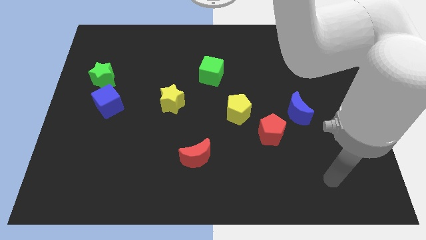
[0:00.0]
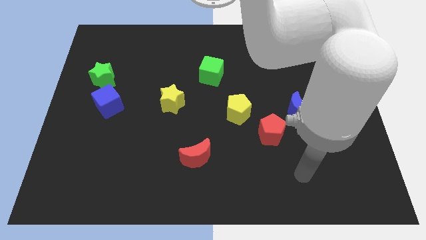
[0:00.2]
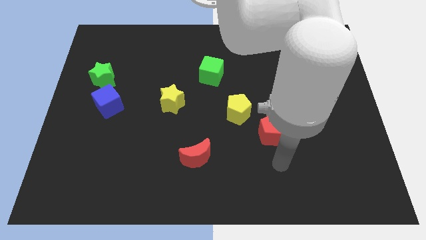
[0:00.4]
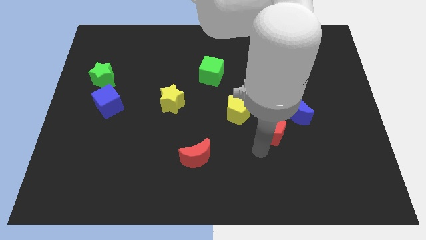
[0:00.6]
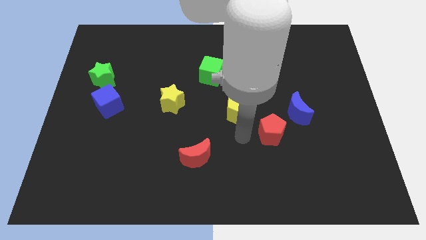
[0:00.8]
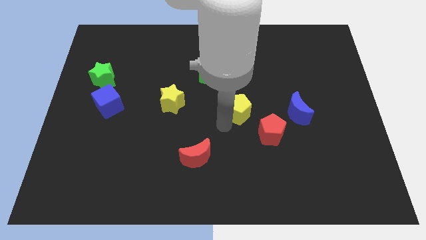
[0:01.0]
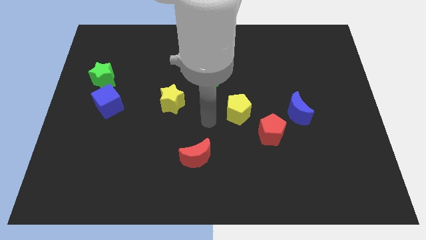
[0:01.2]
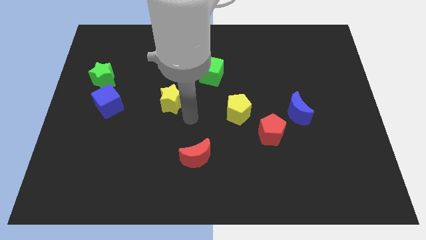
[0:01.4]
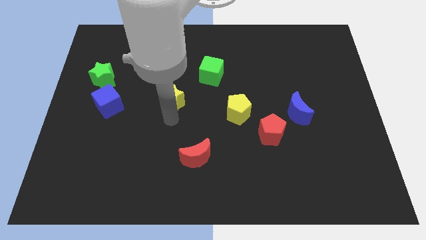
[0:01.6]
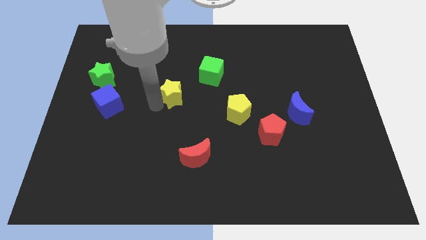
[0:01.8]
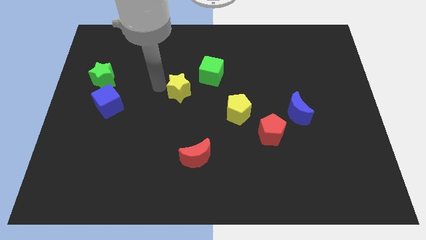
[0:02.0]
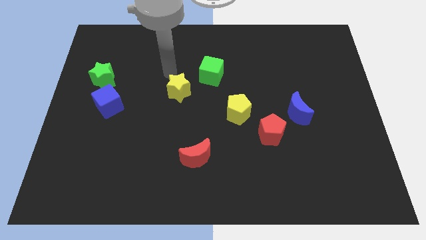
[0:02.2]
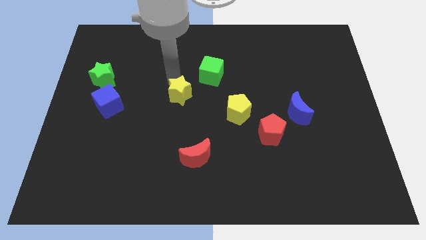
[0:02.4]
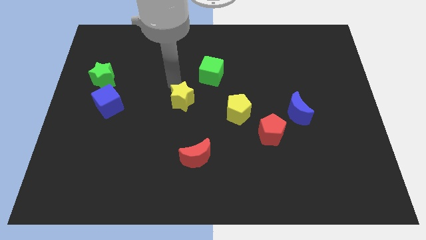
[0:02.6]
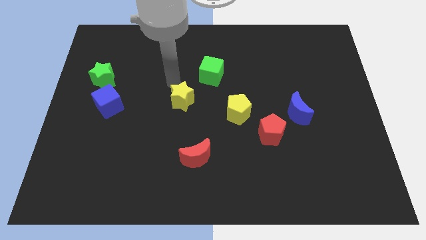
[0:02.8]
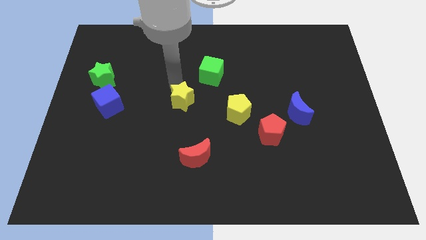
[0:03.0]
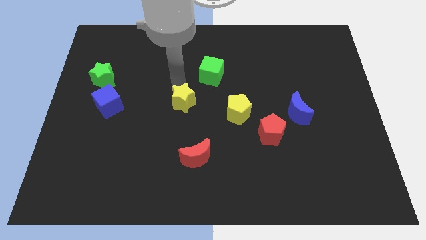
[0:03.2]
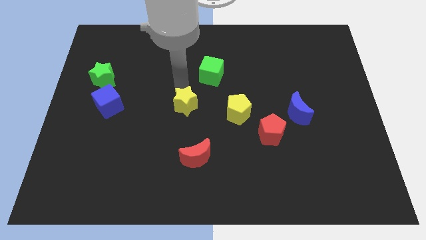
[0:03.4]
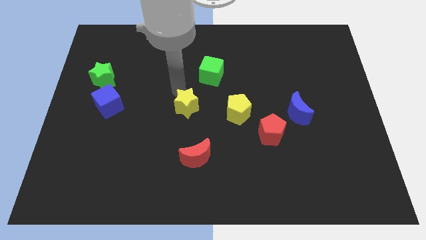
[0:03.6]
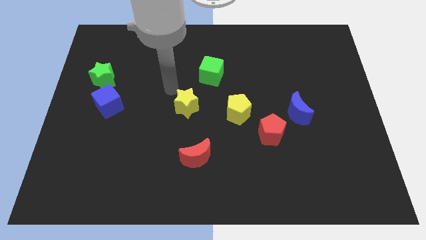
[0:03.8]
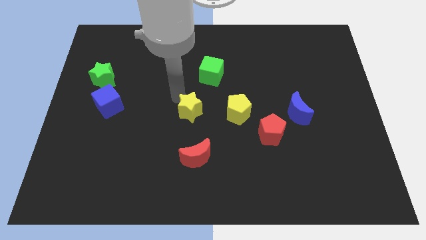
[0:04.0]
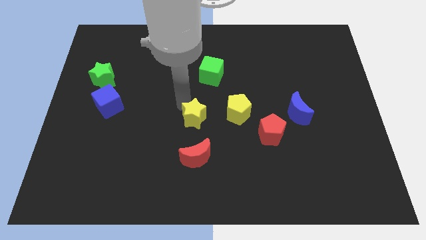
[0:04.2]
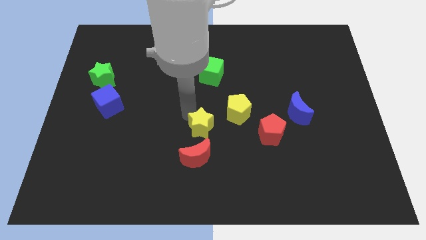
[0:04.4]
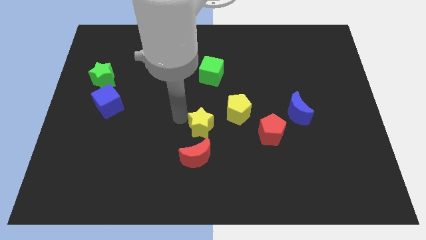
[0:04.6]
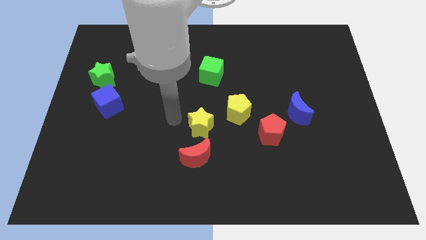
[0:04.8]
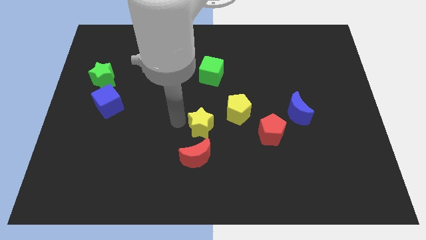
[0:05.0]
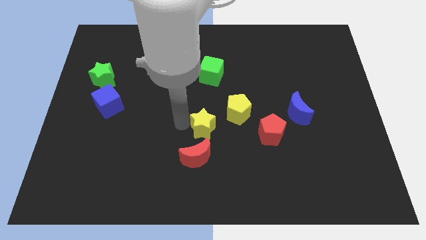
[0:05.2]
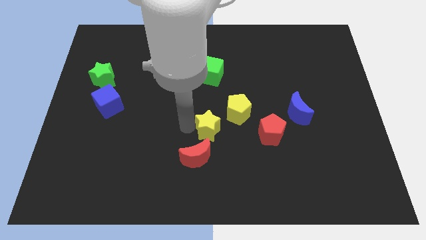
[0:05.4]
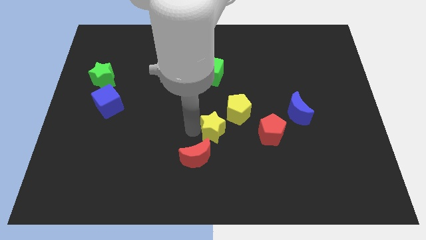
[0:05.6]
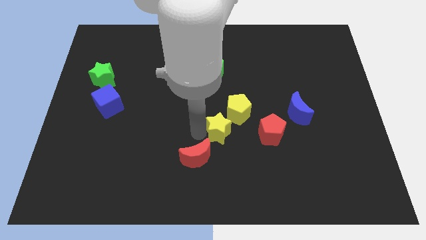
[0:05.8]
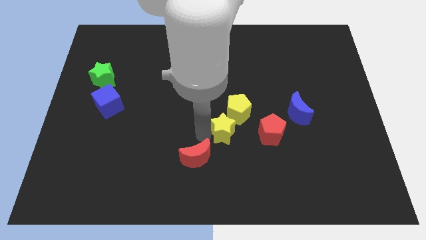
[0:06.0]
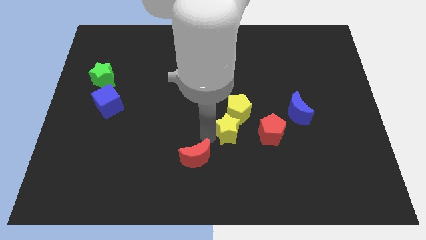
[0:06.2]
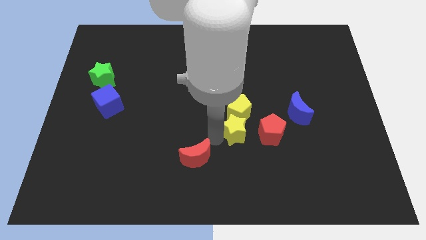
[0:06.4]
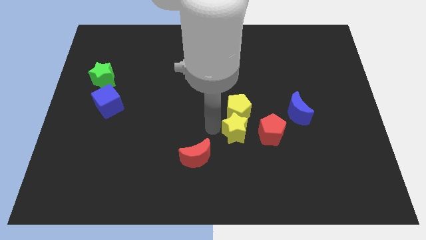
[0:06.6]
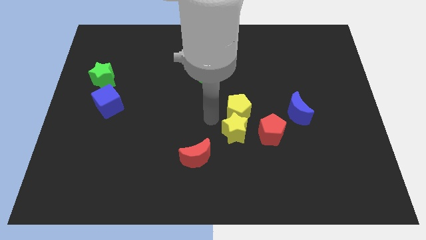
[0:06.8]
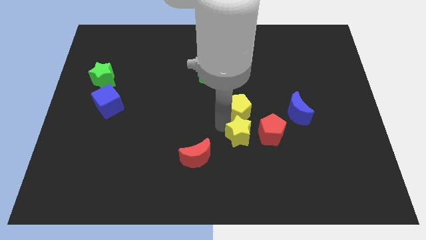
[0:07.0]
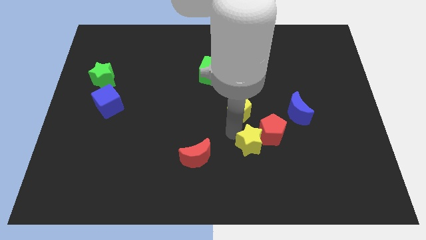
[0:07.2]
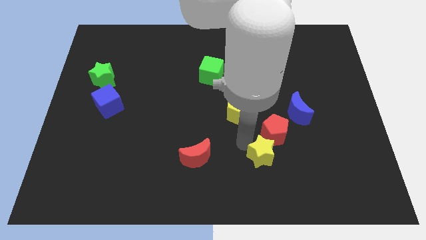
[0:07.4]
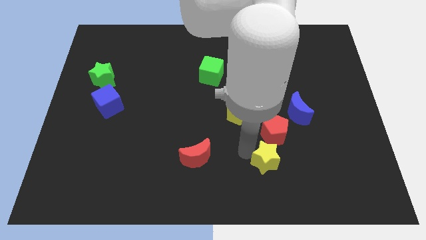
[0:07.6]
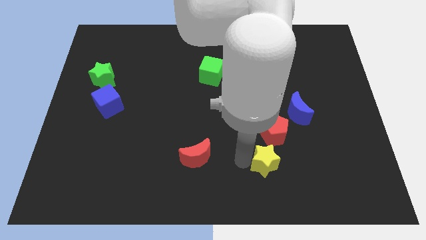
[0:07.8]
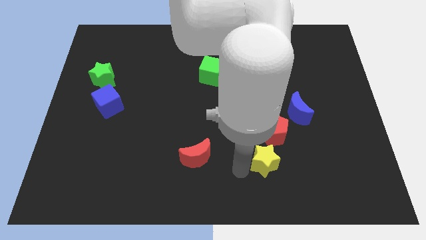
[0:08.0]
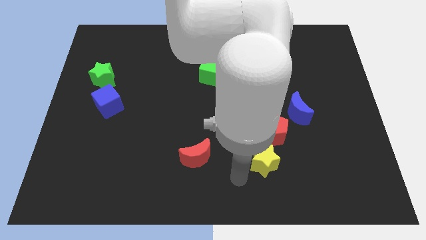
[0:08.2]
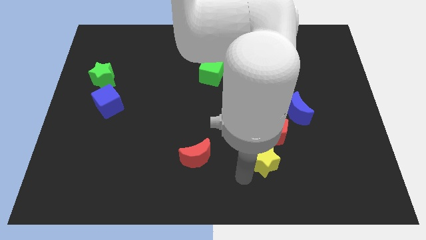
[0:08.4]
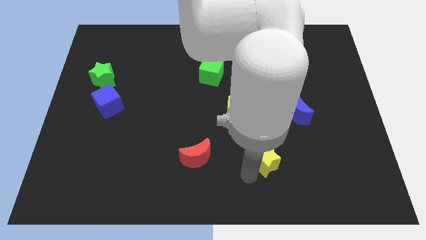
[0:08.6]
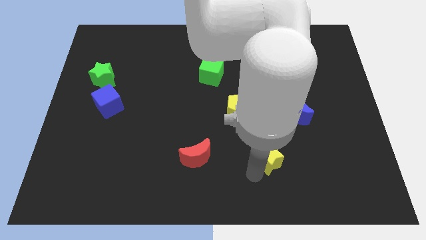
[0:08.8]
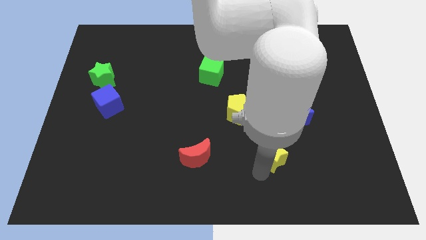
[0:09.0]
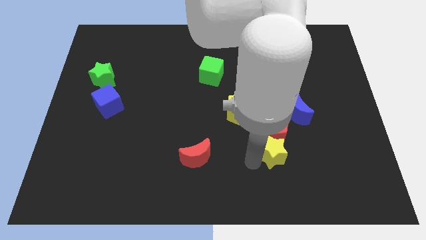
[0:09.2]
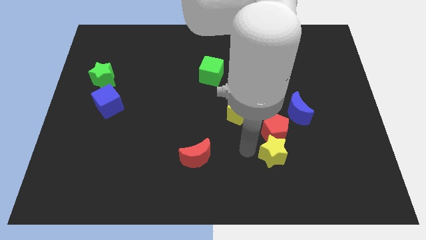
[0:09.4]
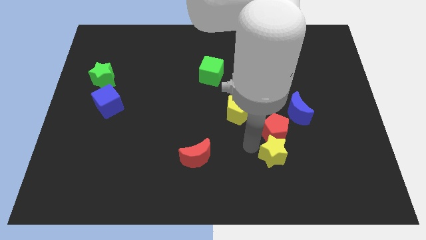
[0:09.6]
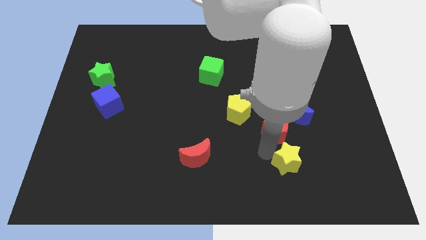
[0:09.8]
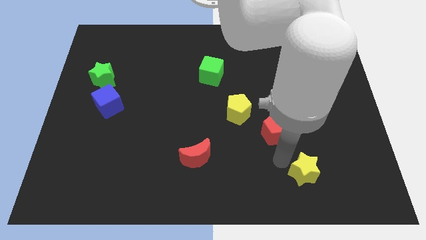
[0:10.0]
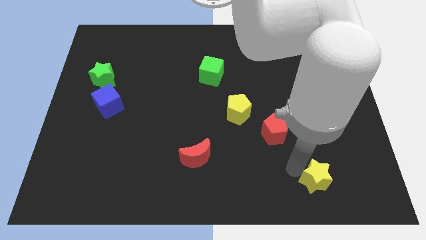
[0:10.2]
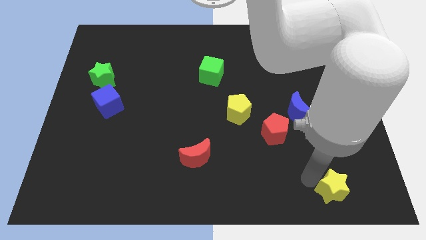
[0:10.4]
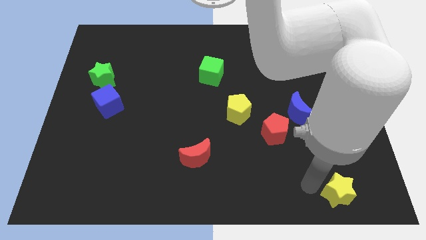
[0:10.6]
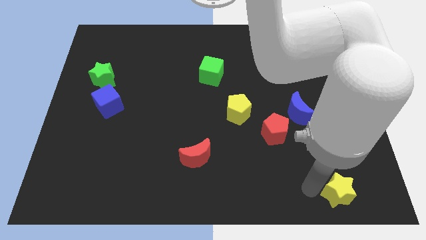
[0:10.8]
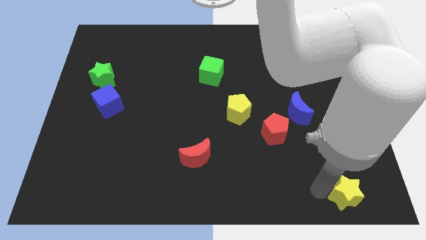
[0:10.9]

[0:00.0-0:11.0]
move the yellow star to the bottom right of the board
